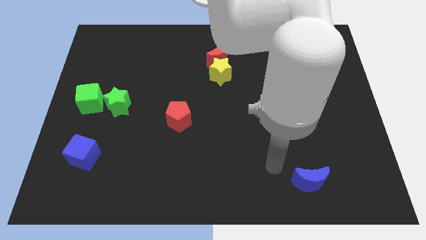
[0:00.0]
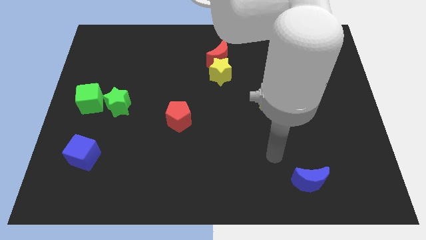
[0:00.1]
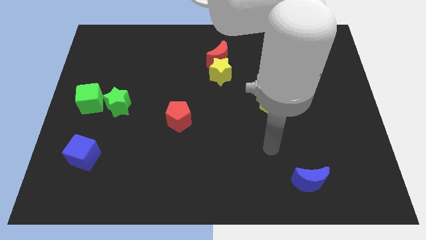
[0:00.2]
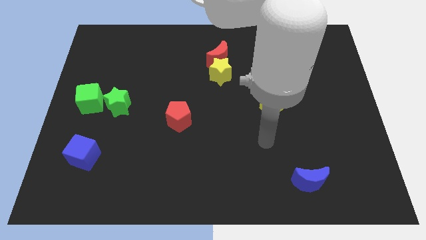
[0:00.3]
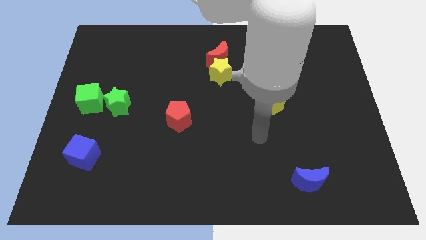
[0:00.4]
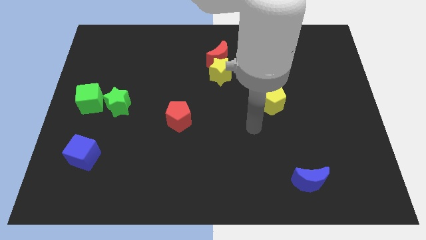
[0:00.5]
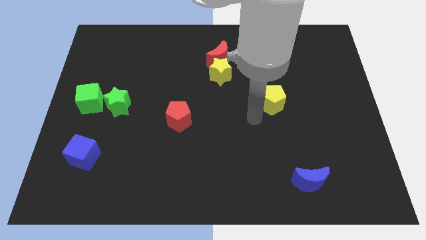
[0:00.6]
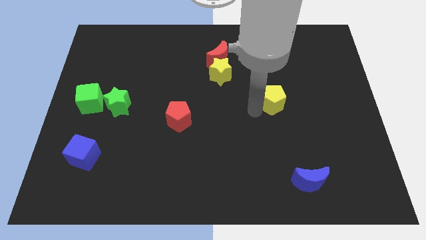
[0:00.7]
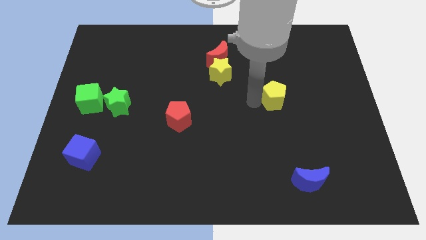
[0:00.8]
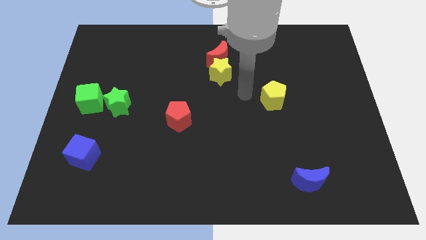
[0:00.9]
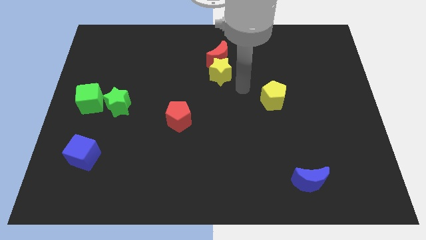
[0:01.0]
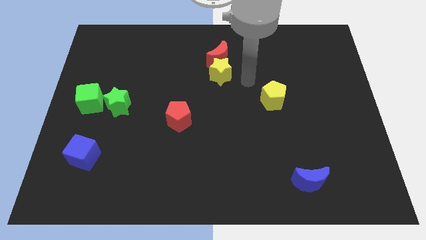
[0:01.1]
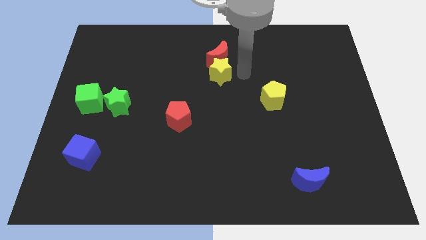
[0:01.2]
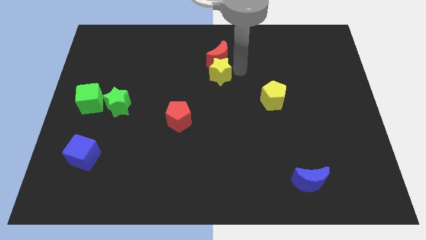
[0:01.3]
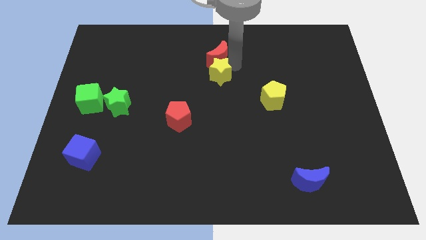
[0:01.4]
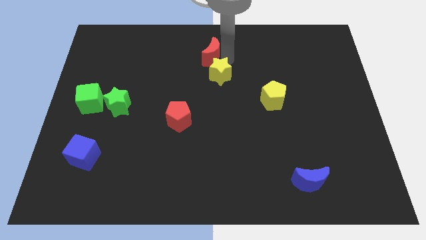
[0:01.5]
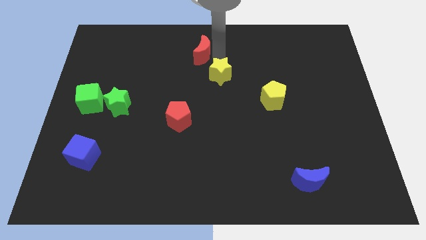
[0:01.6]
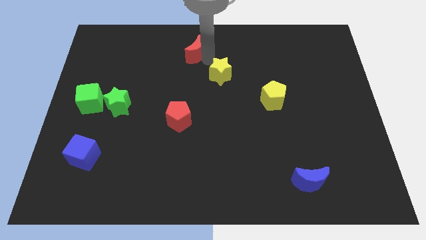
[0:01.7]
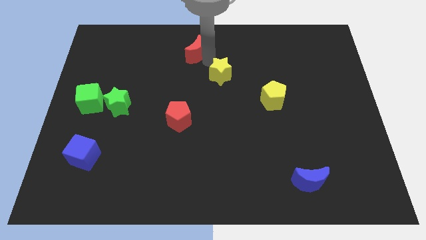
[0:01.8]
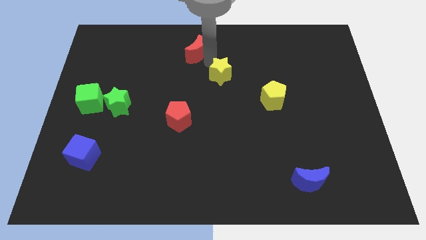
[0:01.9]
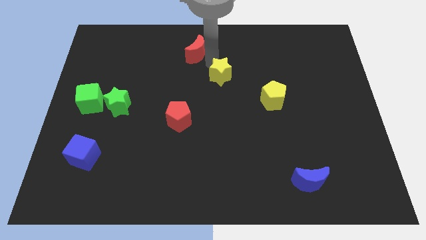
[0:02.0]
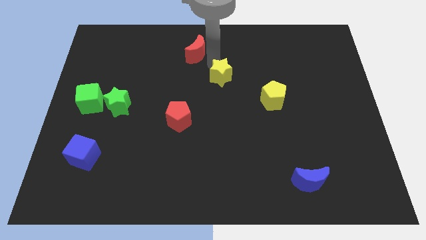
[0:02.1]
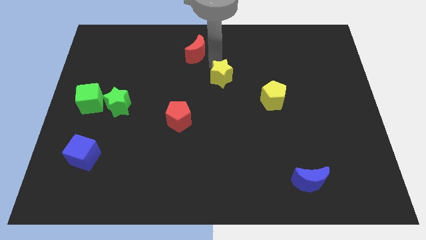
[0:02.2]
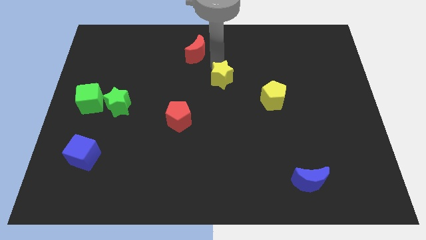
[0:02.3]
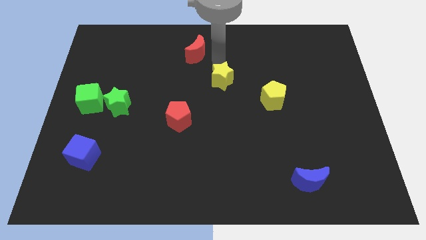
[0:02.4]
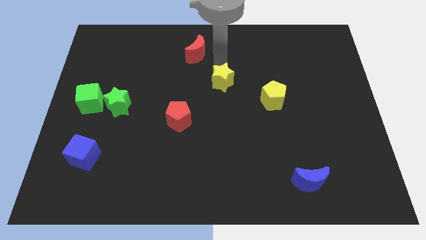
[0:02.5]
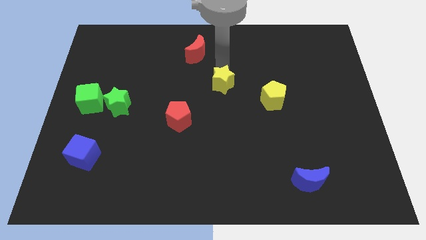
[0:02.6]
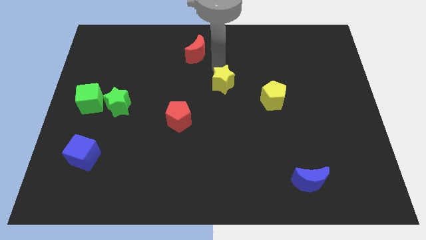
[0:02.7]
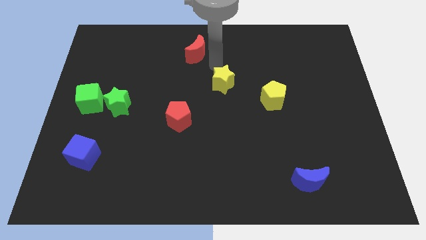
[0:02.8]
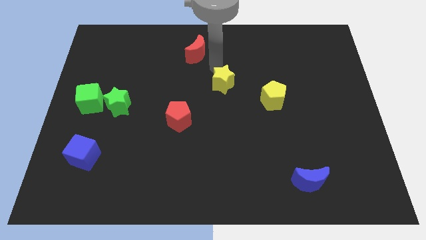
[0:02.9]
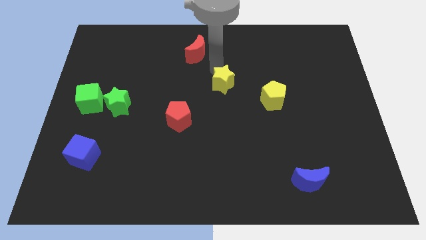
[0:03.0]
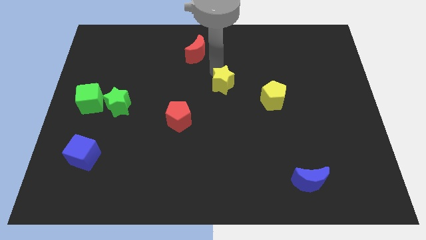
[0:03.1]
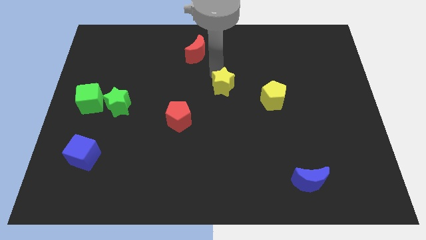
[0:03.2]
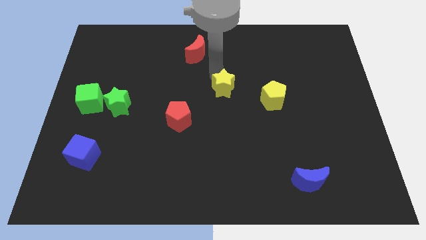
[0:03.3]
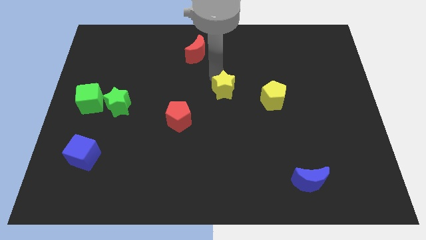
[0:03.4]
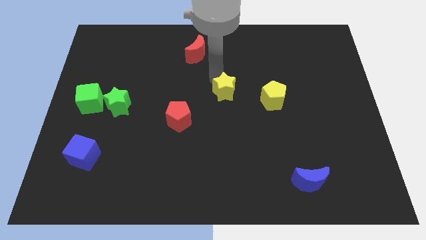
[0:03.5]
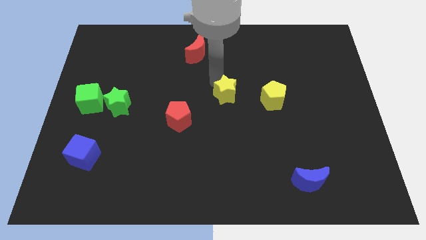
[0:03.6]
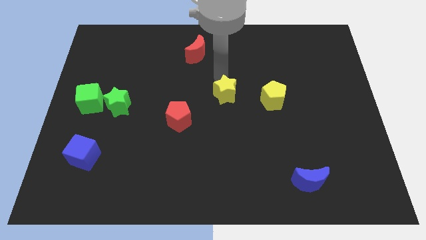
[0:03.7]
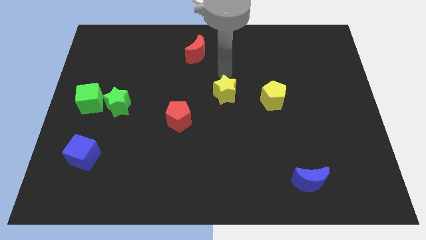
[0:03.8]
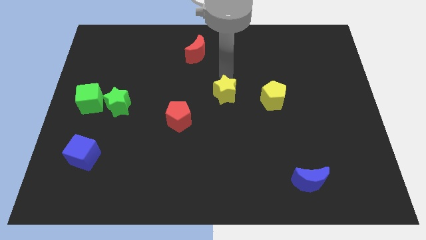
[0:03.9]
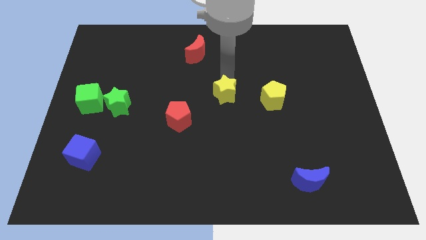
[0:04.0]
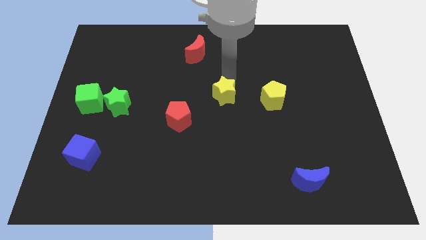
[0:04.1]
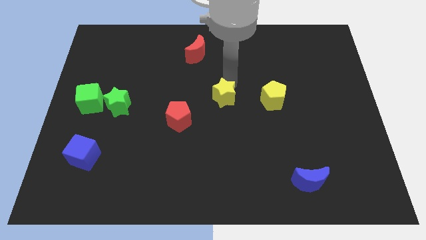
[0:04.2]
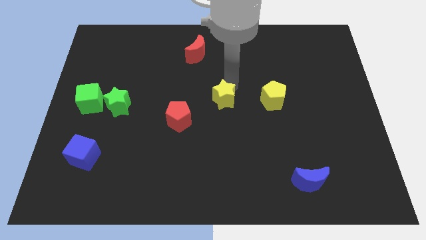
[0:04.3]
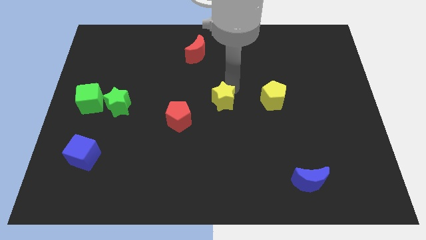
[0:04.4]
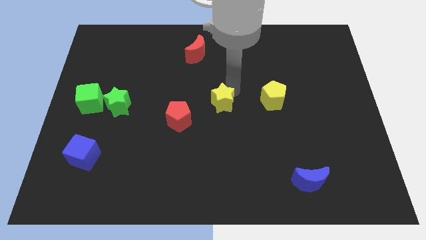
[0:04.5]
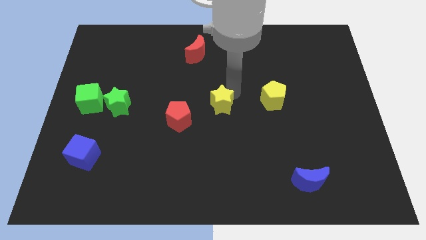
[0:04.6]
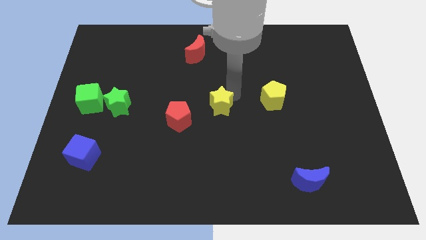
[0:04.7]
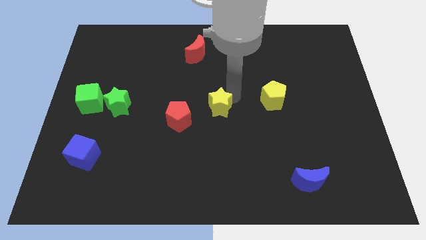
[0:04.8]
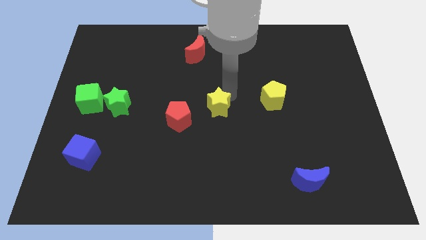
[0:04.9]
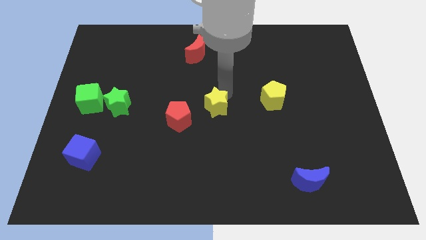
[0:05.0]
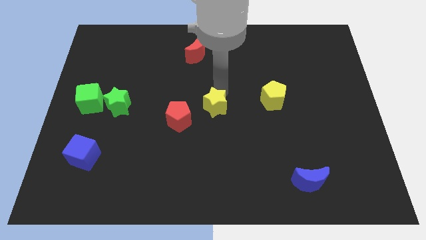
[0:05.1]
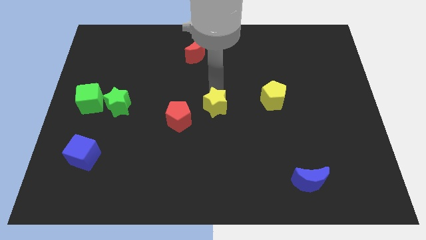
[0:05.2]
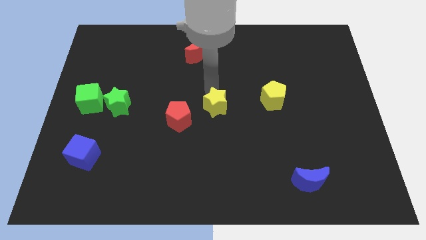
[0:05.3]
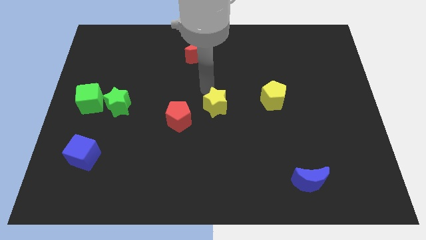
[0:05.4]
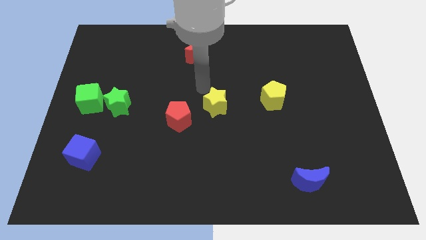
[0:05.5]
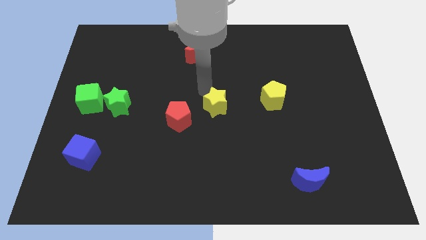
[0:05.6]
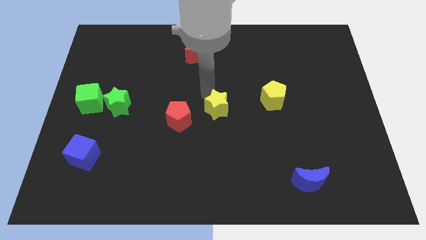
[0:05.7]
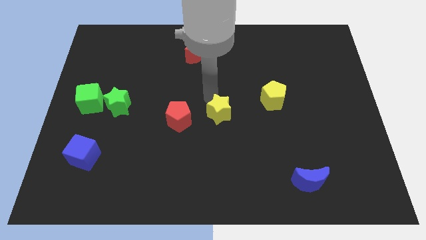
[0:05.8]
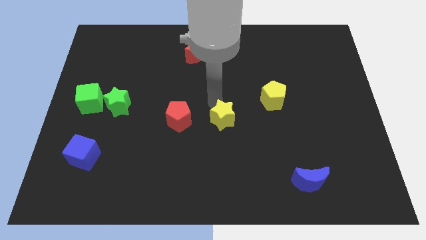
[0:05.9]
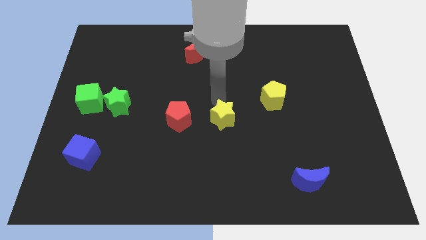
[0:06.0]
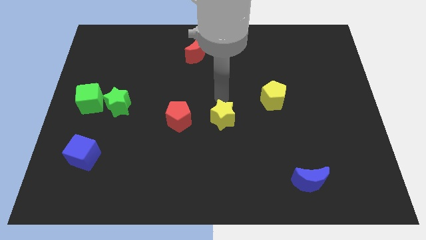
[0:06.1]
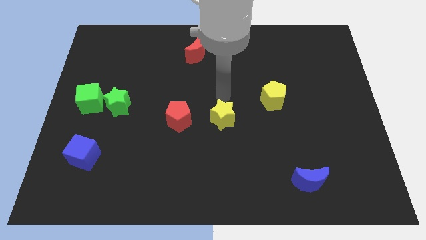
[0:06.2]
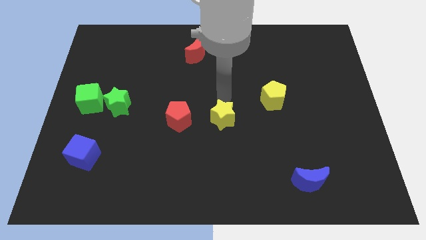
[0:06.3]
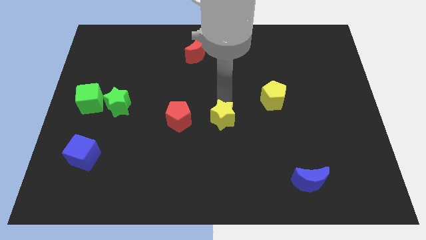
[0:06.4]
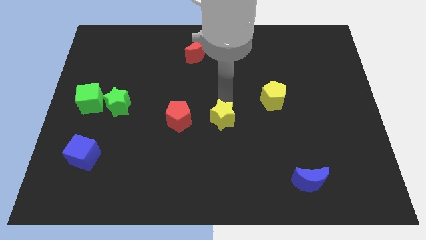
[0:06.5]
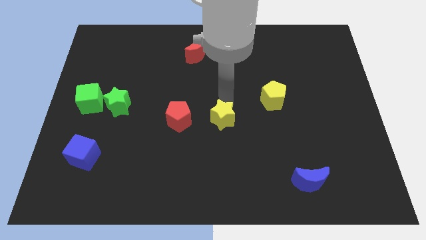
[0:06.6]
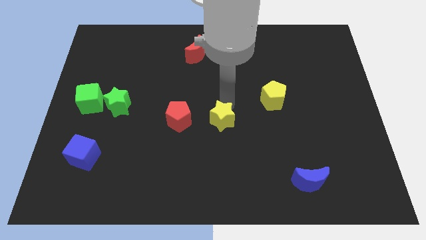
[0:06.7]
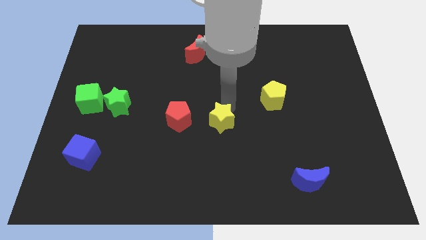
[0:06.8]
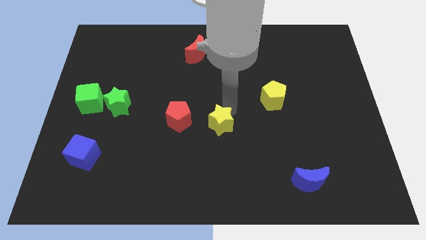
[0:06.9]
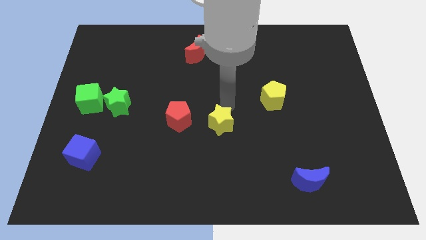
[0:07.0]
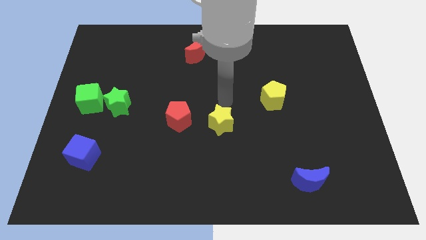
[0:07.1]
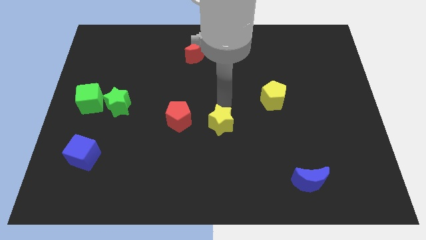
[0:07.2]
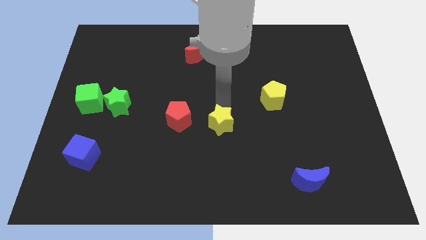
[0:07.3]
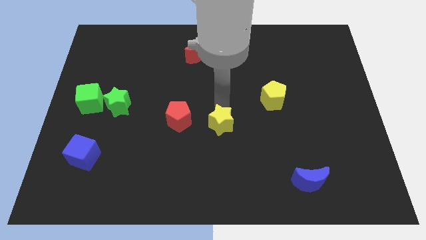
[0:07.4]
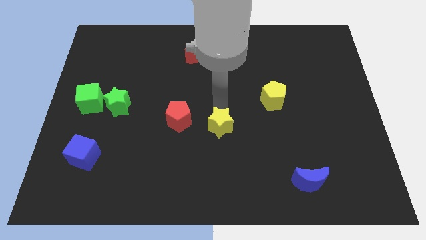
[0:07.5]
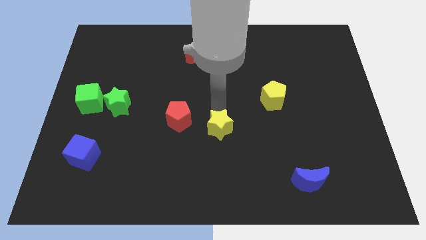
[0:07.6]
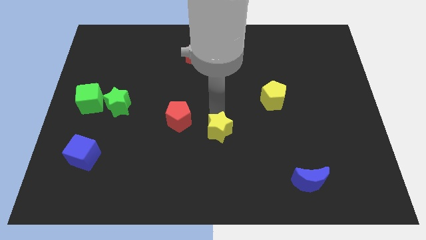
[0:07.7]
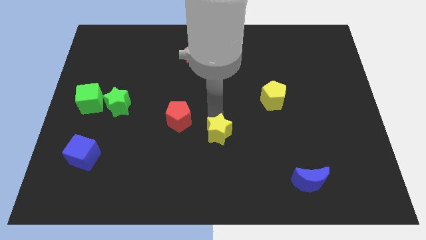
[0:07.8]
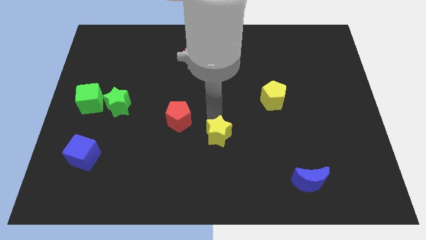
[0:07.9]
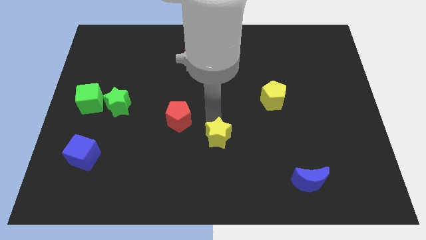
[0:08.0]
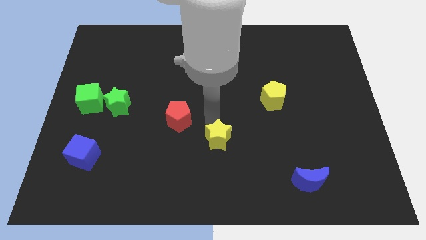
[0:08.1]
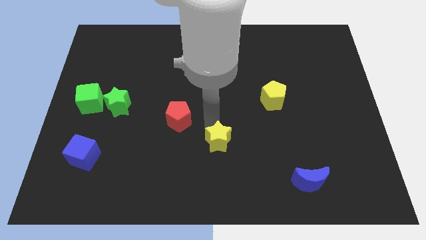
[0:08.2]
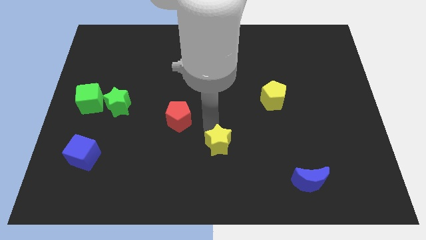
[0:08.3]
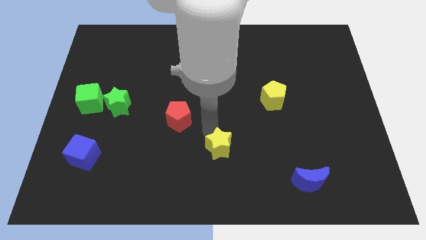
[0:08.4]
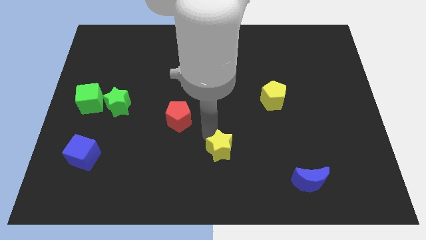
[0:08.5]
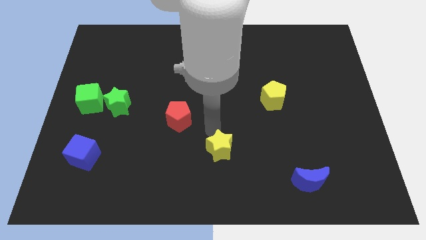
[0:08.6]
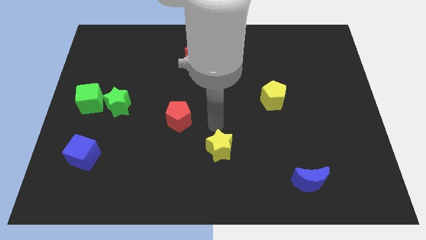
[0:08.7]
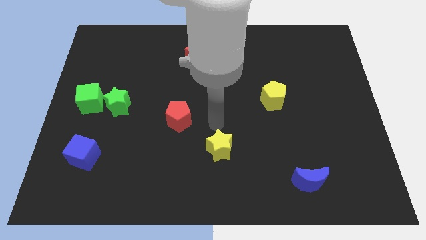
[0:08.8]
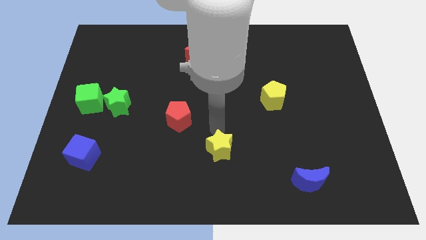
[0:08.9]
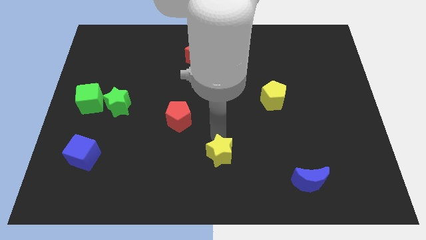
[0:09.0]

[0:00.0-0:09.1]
move the yellow star to the bottom side
